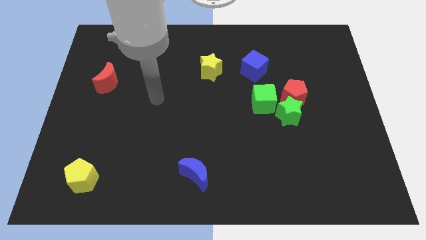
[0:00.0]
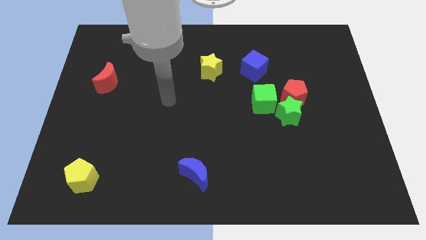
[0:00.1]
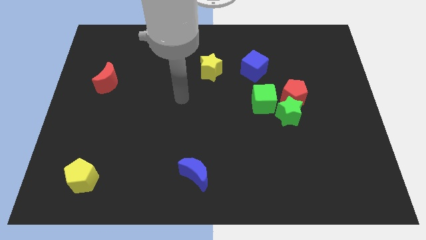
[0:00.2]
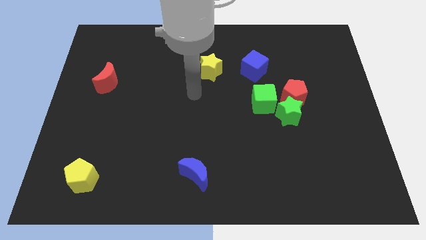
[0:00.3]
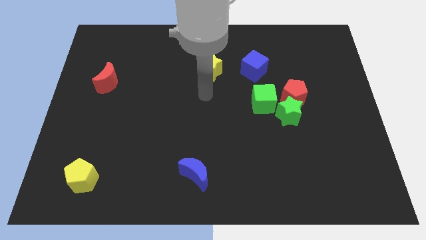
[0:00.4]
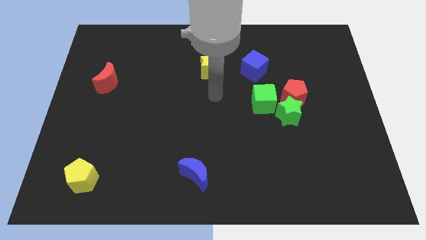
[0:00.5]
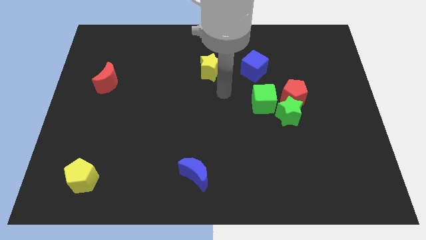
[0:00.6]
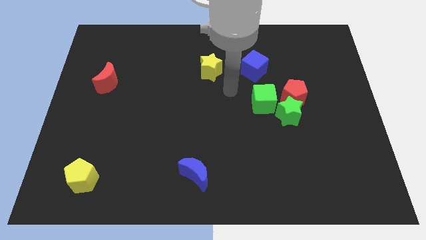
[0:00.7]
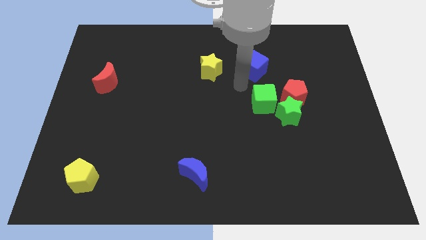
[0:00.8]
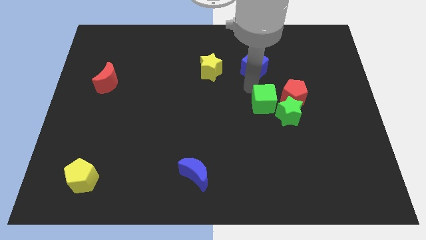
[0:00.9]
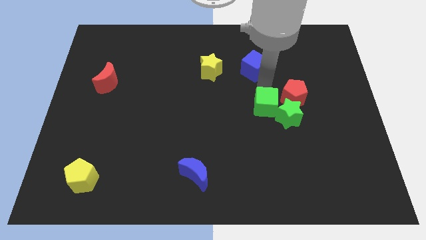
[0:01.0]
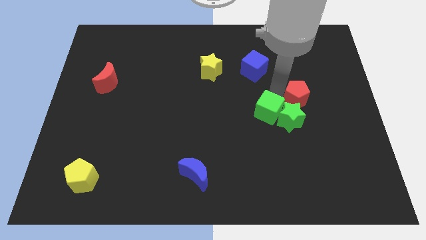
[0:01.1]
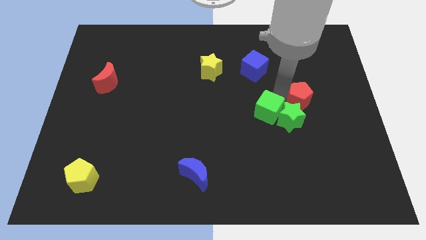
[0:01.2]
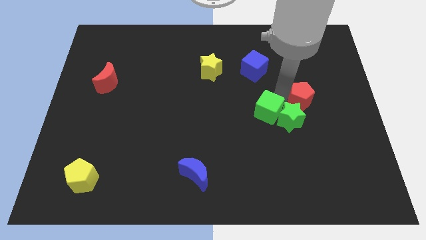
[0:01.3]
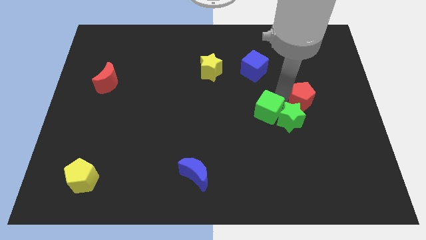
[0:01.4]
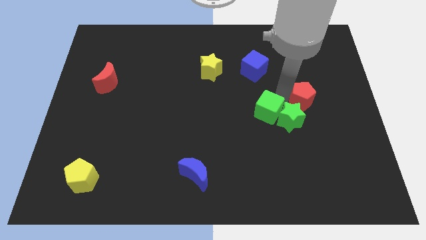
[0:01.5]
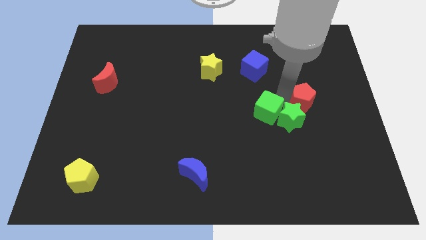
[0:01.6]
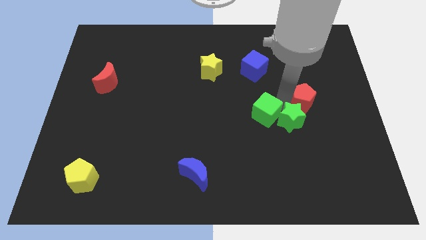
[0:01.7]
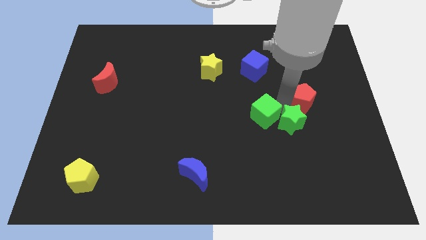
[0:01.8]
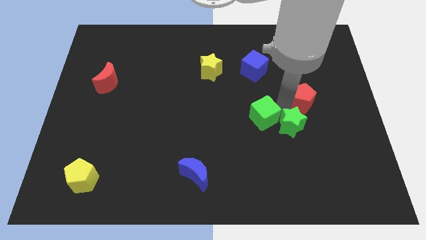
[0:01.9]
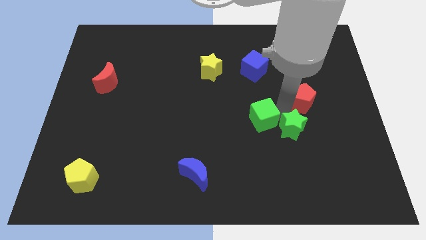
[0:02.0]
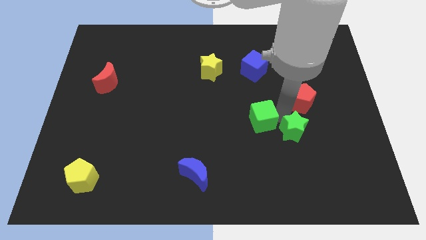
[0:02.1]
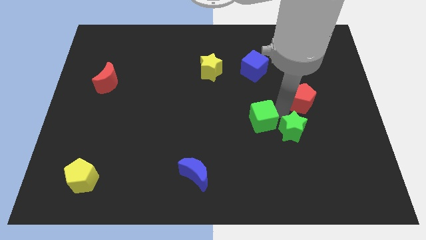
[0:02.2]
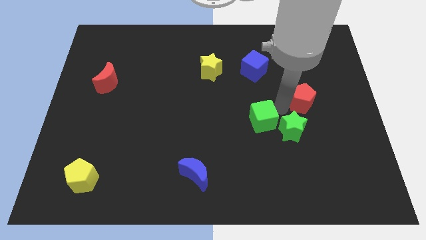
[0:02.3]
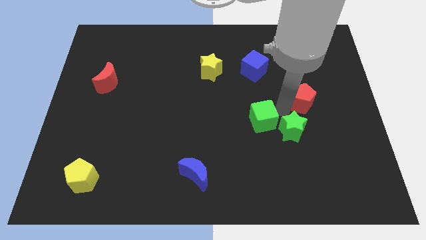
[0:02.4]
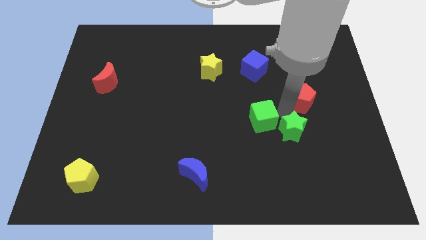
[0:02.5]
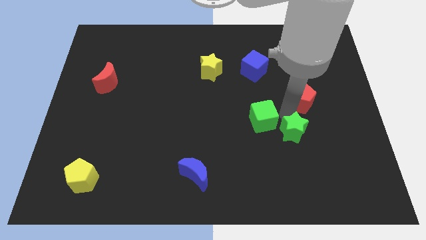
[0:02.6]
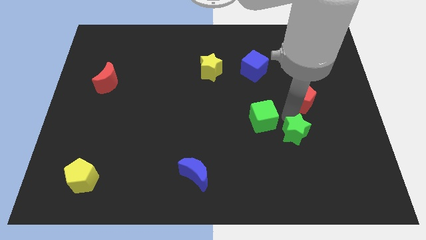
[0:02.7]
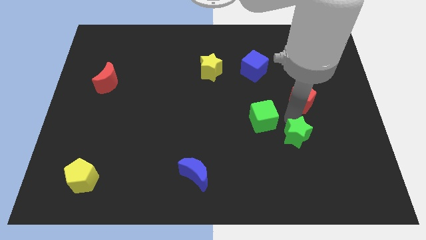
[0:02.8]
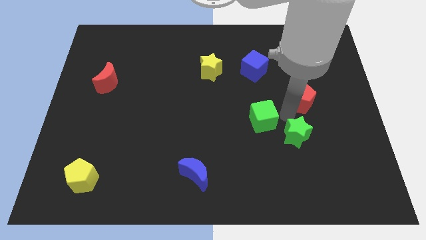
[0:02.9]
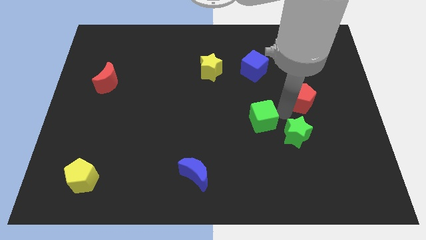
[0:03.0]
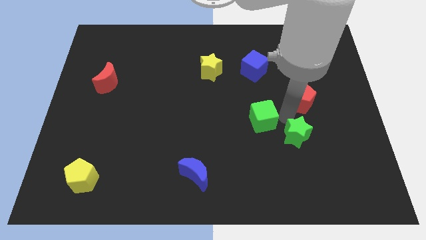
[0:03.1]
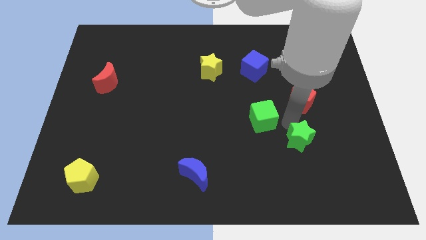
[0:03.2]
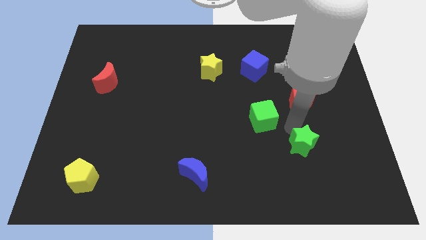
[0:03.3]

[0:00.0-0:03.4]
move the green star away from the red pentagon and green cube

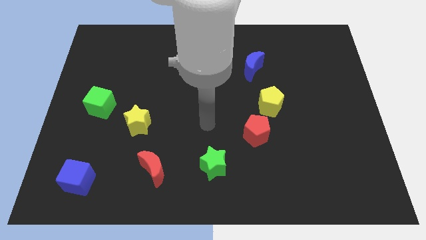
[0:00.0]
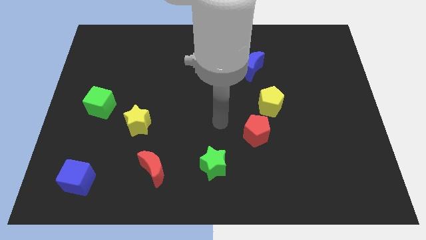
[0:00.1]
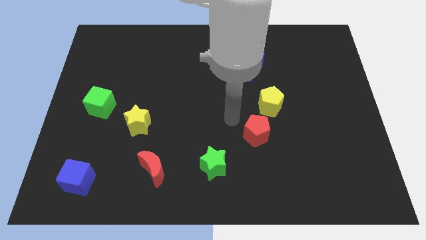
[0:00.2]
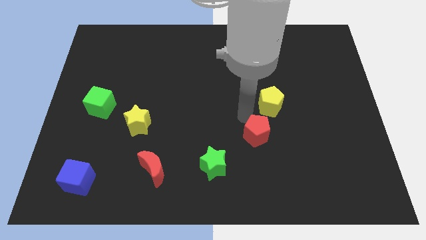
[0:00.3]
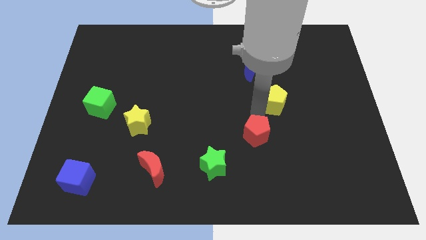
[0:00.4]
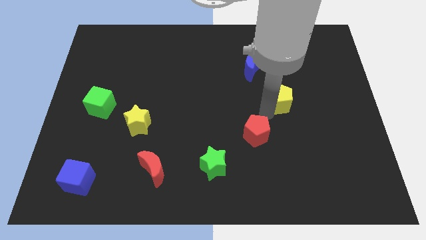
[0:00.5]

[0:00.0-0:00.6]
move the red pentagon away from the yellow pentagon

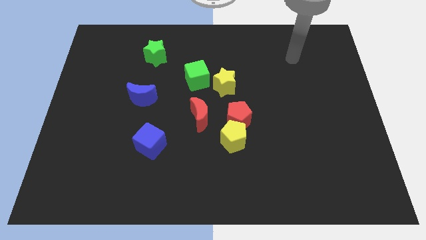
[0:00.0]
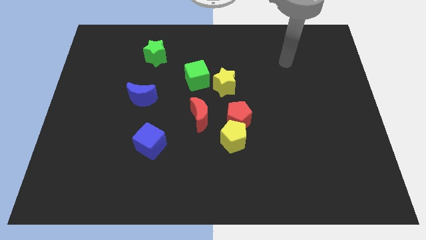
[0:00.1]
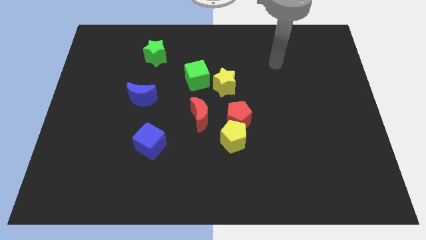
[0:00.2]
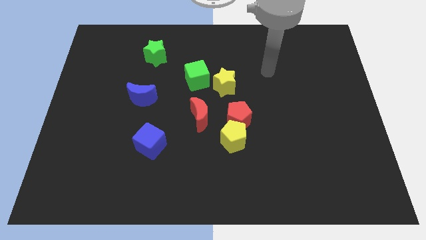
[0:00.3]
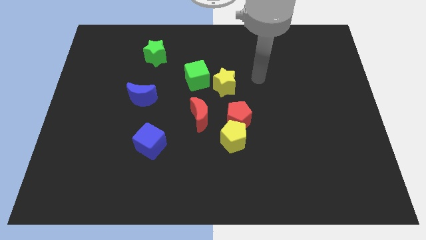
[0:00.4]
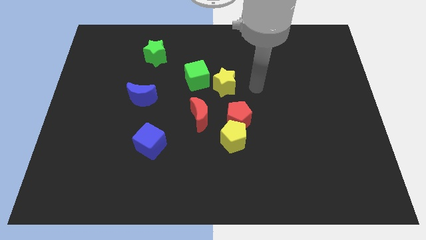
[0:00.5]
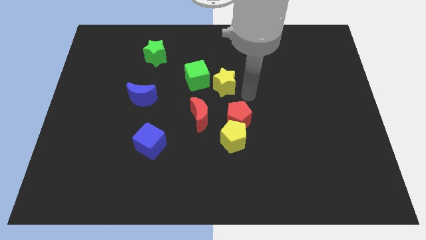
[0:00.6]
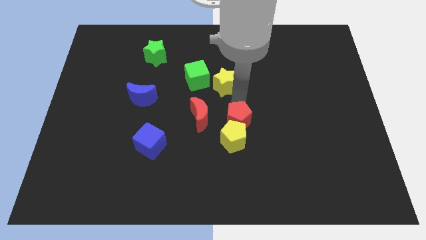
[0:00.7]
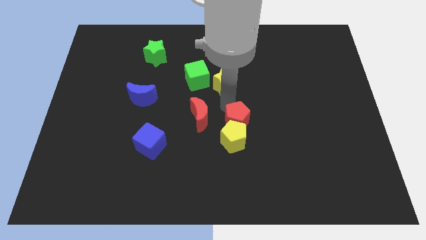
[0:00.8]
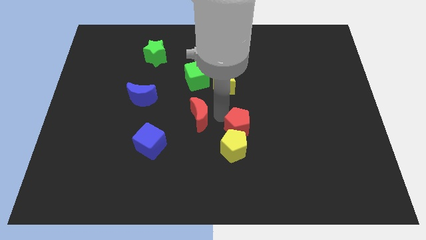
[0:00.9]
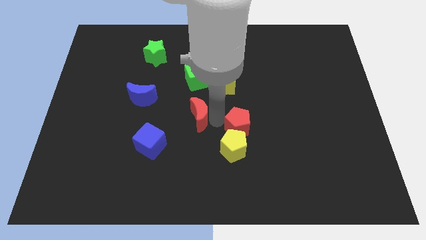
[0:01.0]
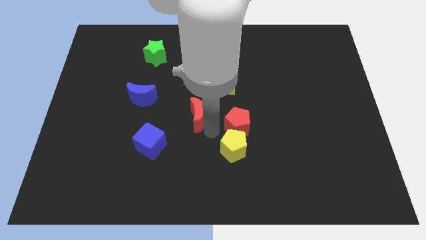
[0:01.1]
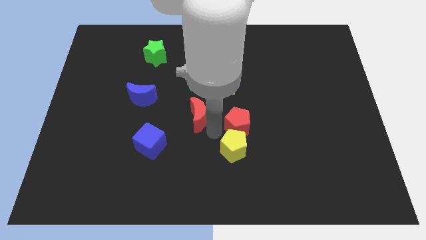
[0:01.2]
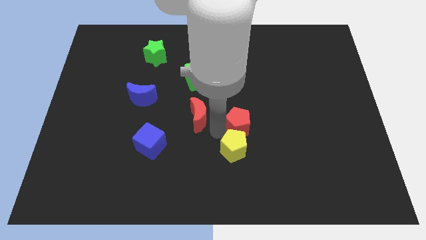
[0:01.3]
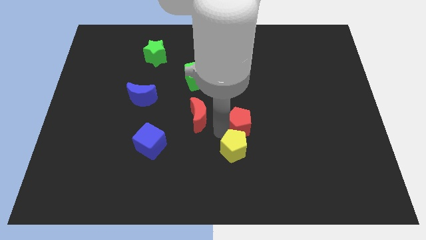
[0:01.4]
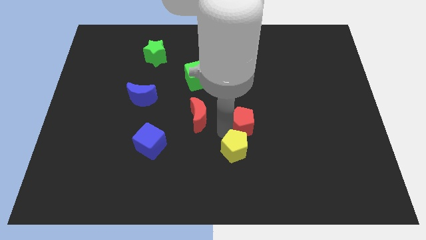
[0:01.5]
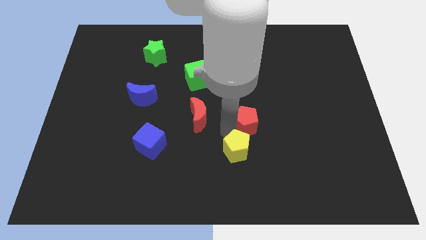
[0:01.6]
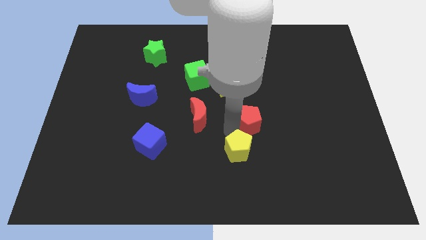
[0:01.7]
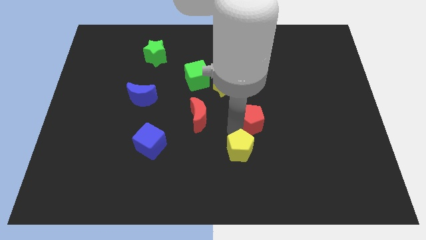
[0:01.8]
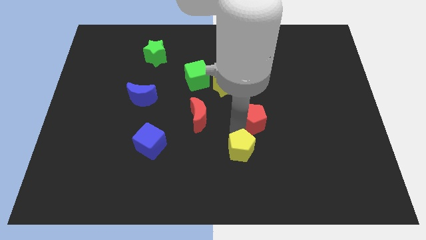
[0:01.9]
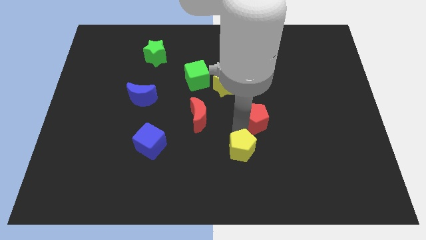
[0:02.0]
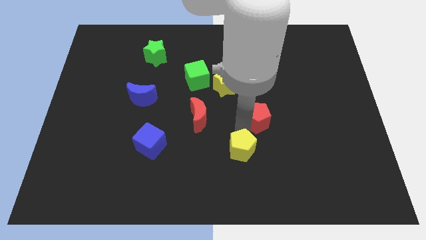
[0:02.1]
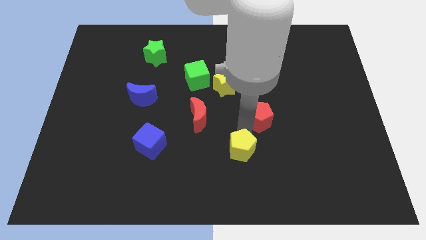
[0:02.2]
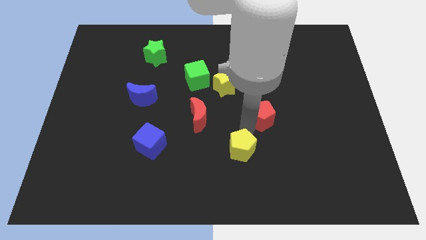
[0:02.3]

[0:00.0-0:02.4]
pull the red pentagon apart from the yellow pentagon and red moon

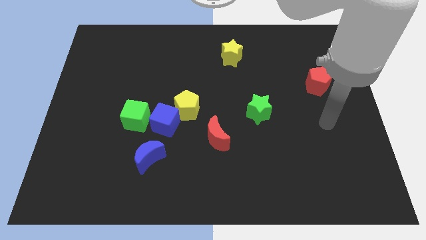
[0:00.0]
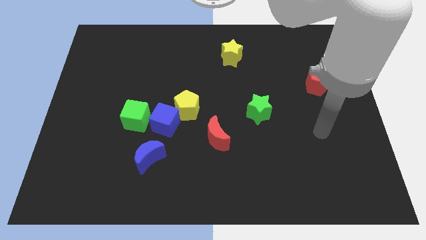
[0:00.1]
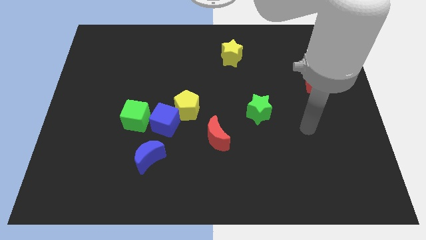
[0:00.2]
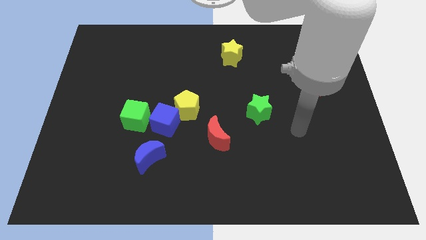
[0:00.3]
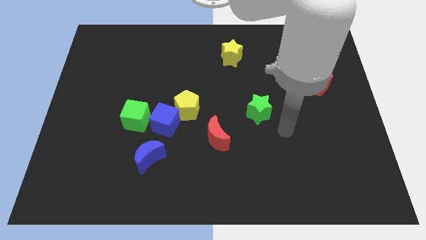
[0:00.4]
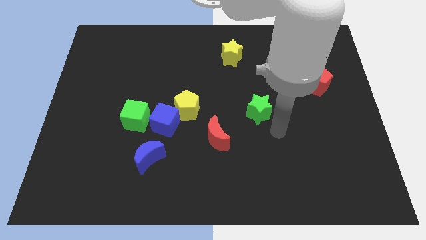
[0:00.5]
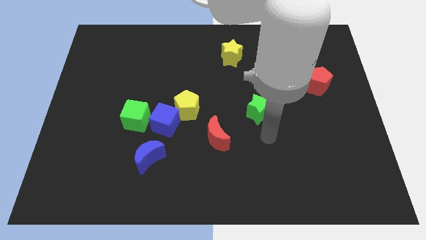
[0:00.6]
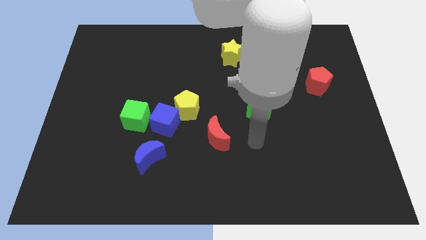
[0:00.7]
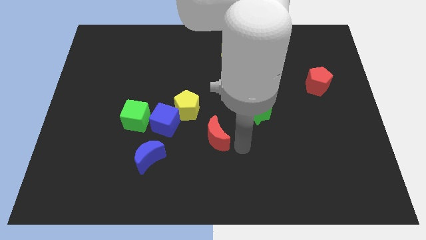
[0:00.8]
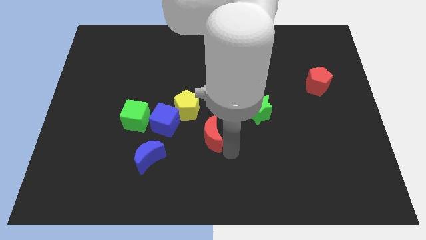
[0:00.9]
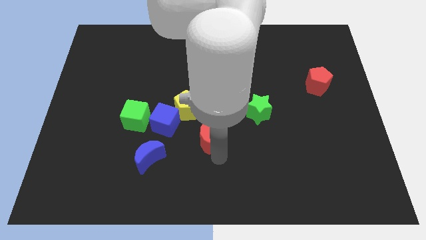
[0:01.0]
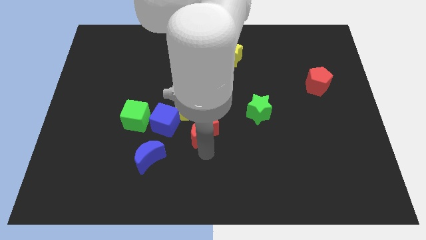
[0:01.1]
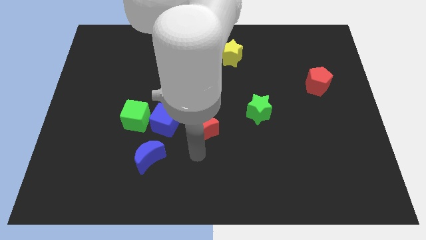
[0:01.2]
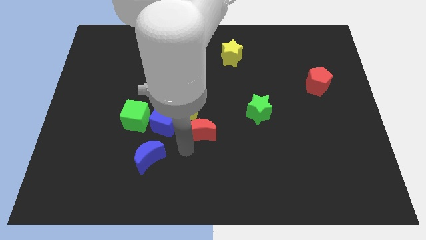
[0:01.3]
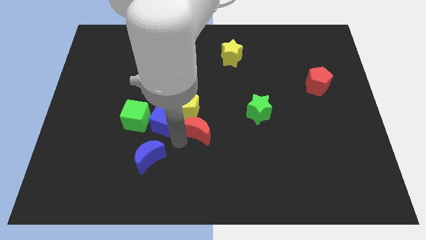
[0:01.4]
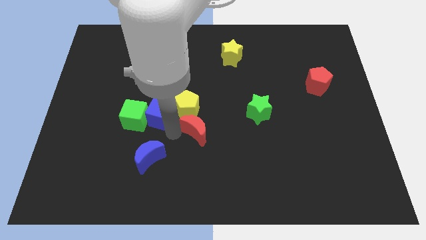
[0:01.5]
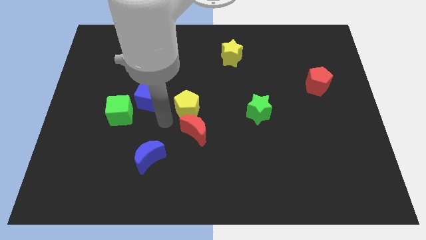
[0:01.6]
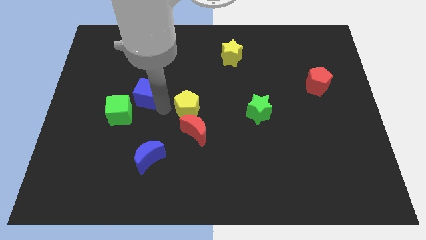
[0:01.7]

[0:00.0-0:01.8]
separate the yellow pentagon from the blue cube

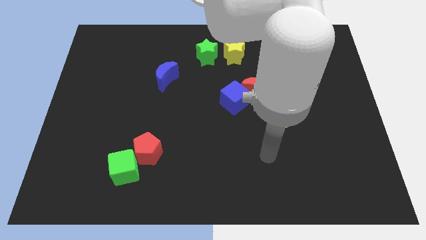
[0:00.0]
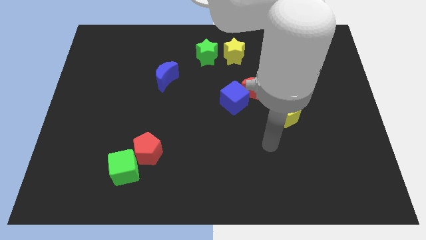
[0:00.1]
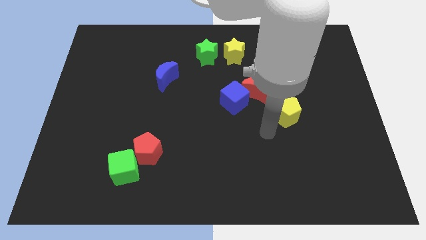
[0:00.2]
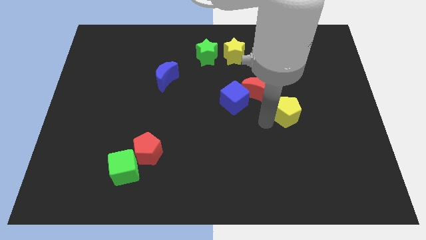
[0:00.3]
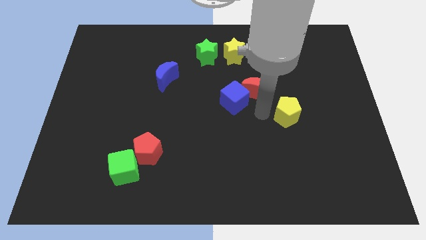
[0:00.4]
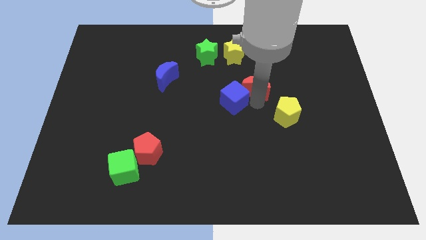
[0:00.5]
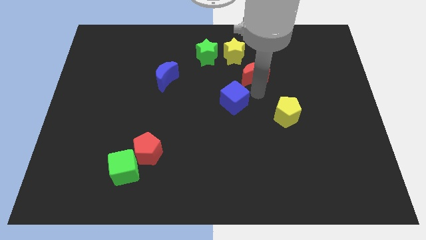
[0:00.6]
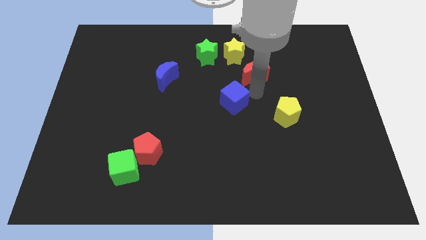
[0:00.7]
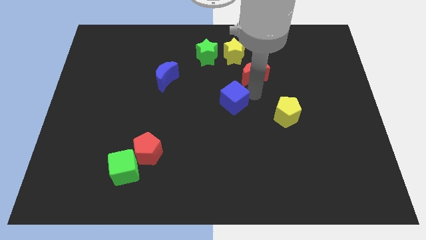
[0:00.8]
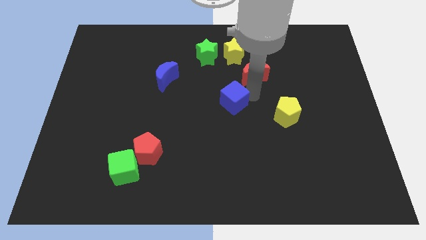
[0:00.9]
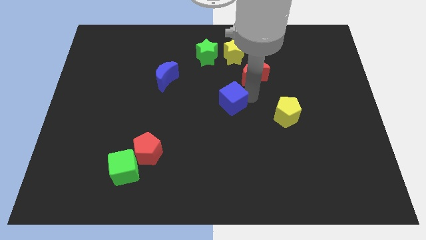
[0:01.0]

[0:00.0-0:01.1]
pull the blue cube apart from the red moon
